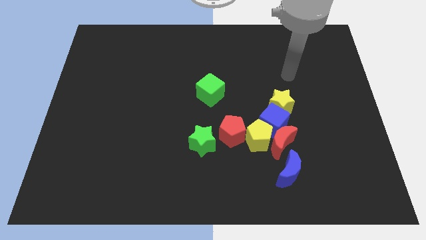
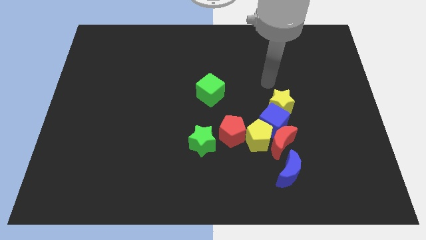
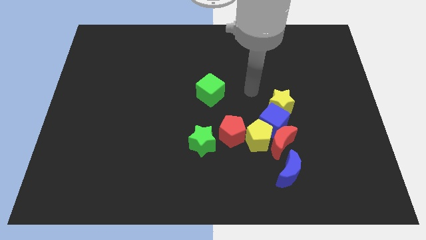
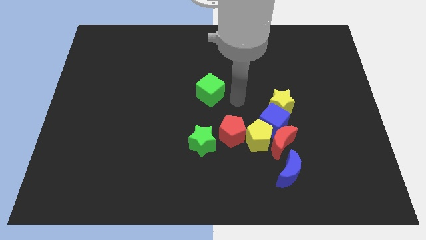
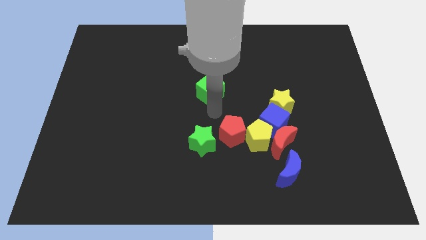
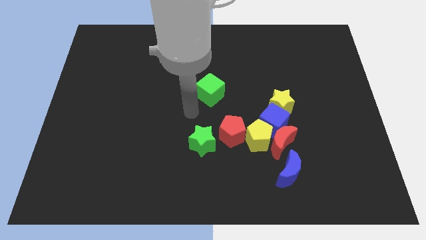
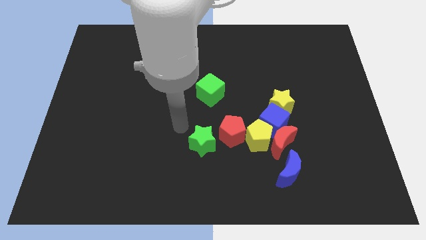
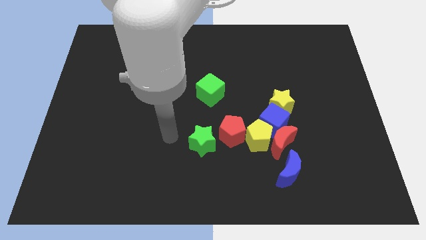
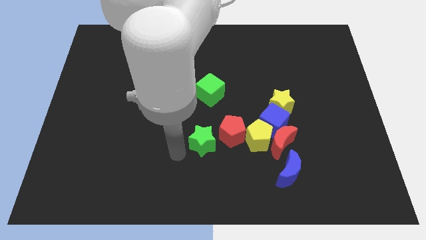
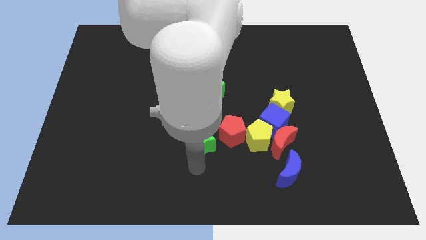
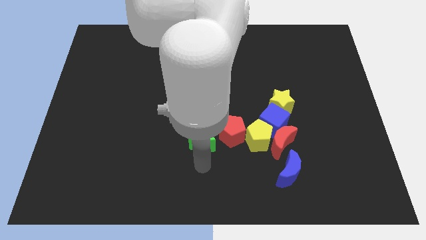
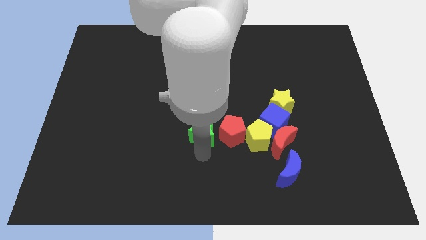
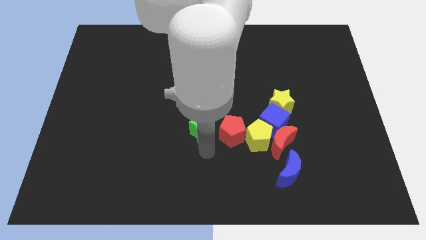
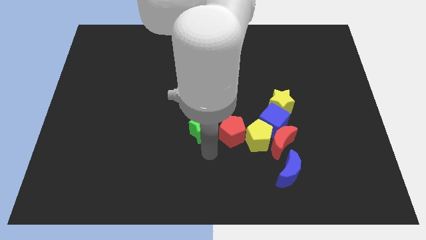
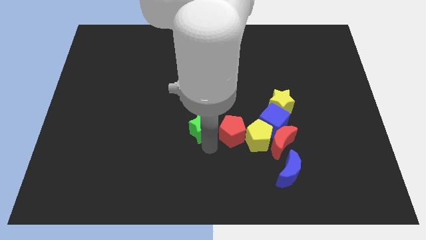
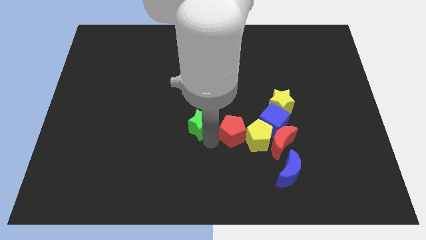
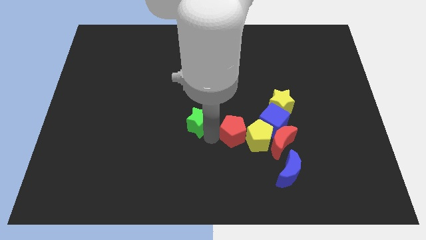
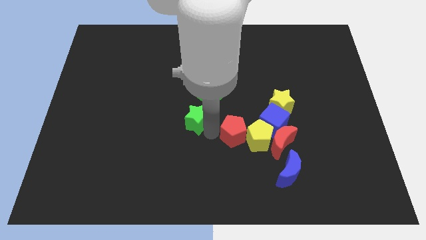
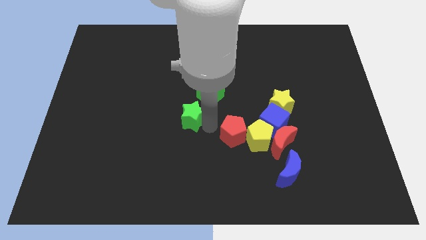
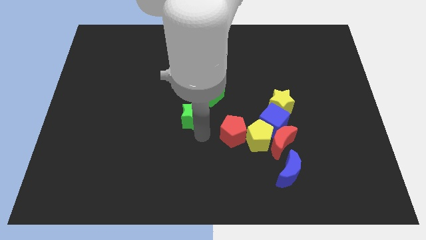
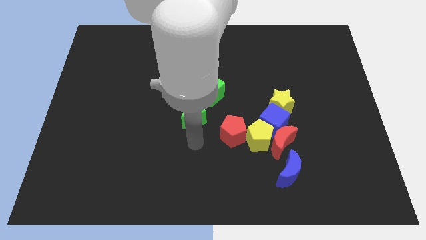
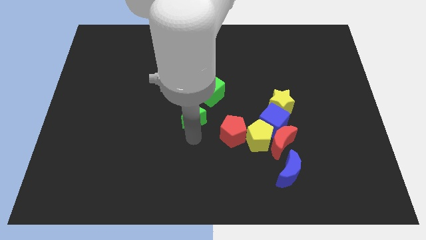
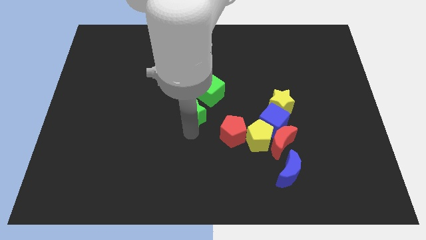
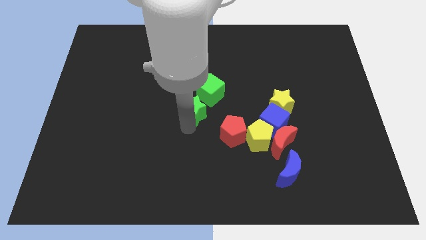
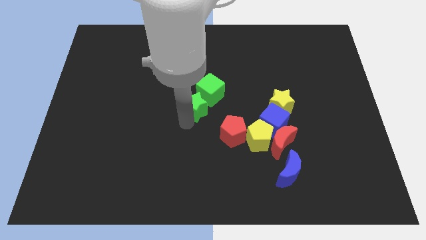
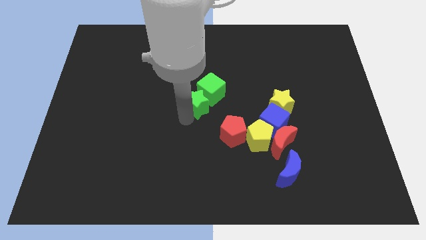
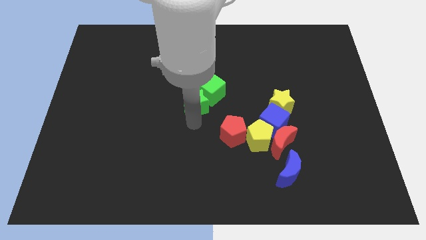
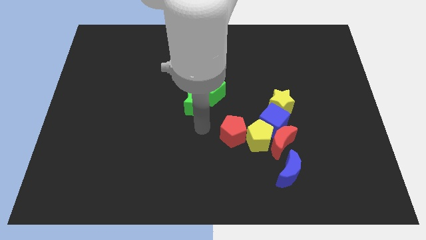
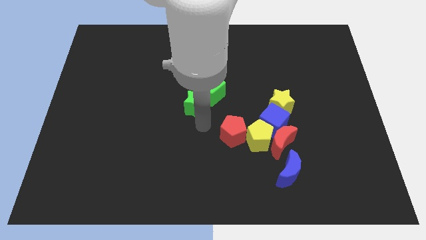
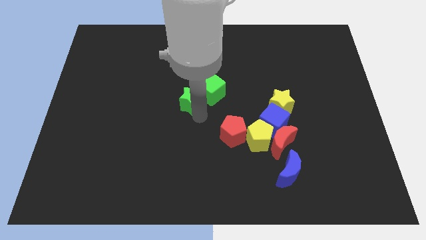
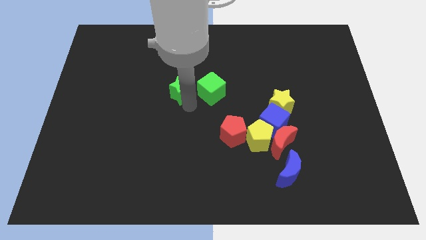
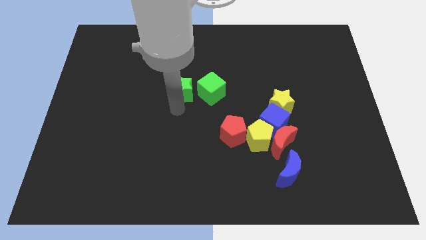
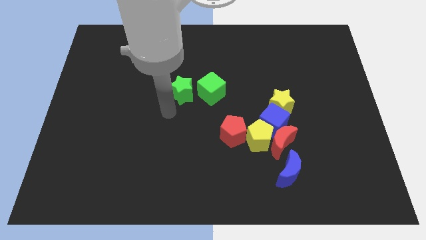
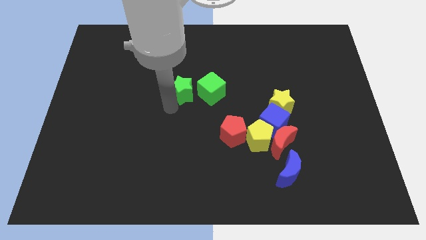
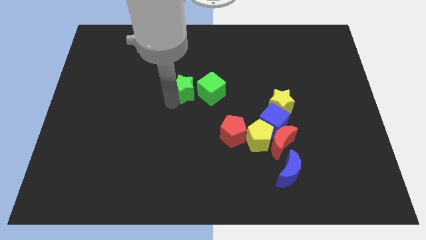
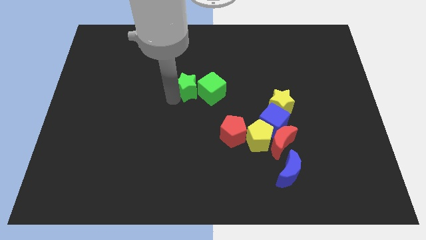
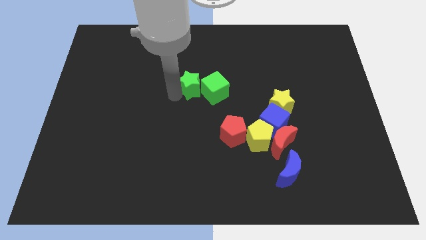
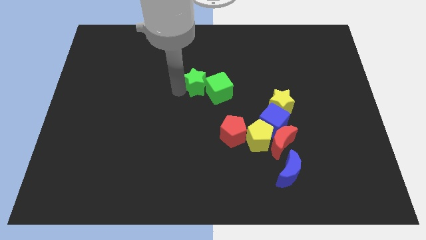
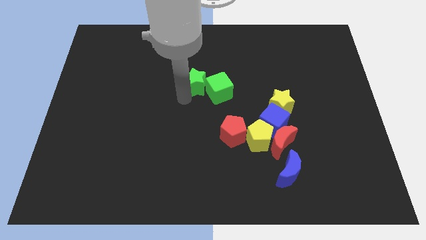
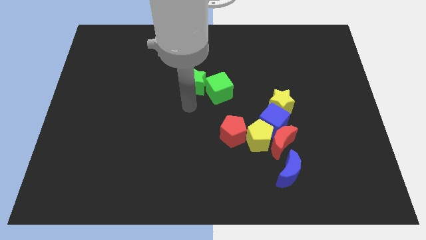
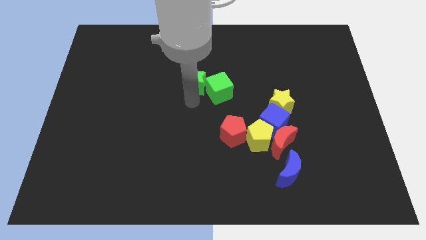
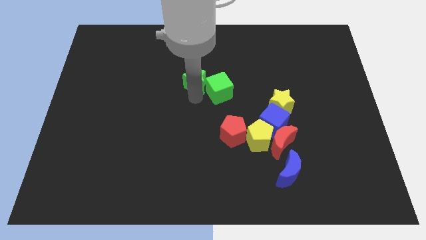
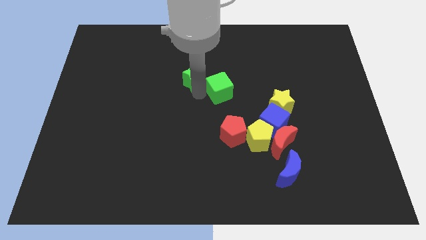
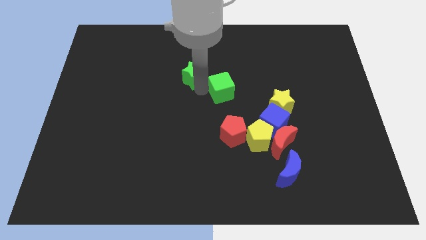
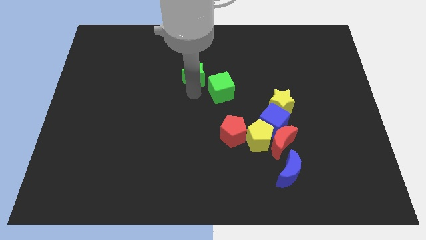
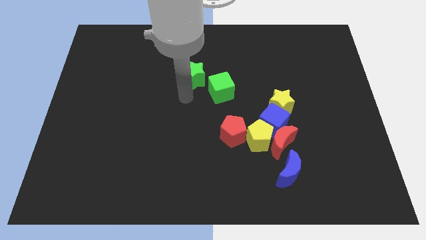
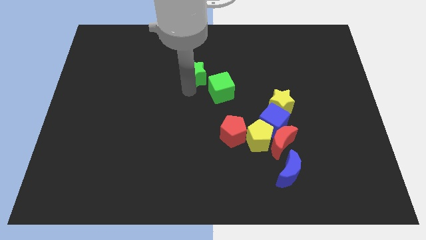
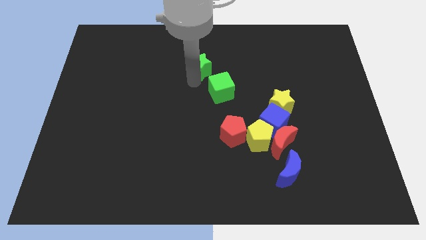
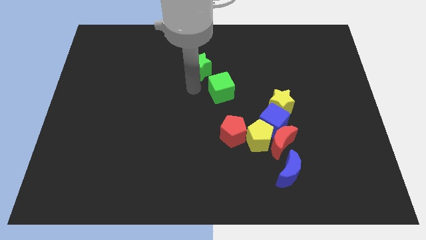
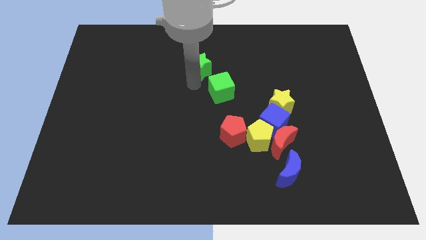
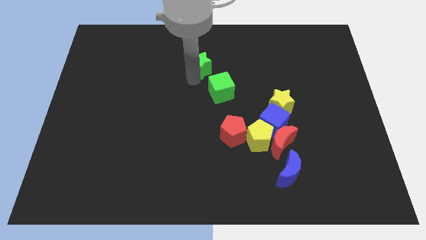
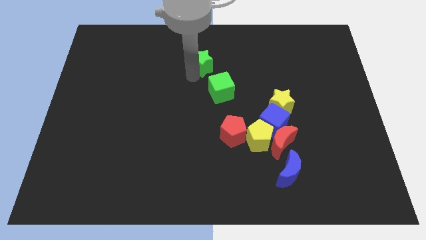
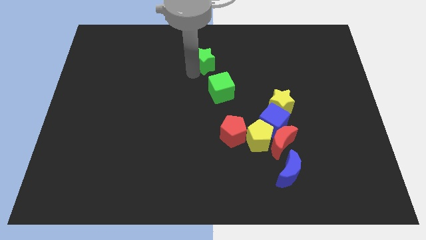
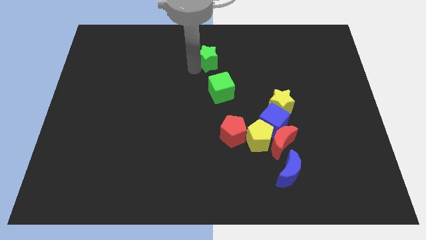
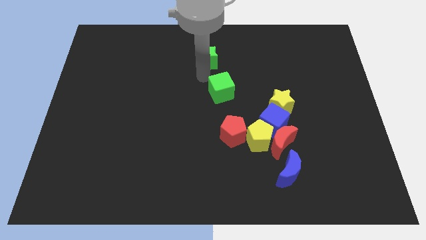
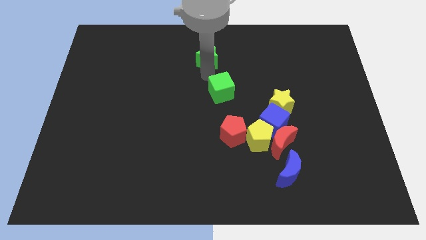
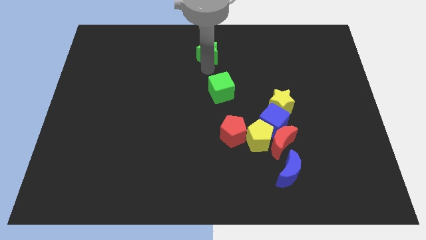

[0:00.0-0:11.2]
put the green star to the top

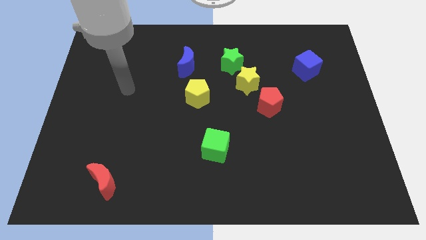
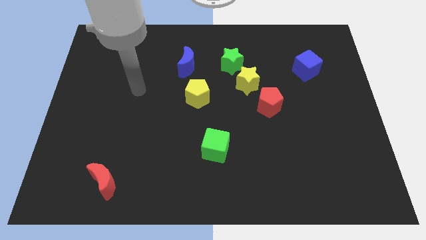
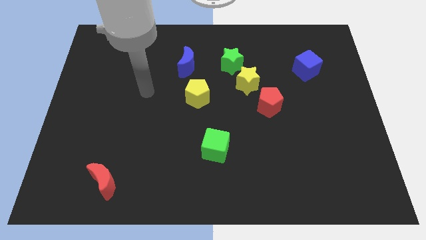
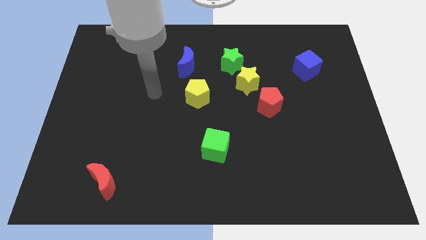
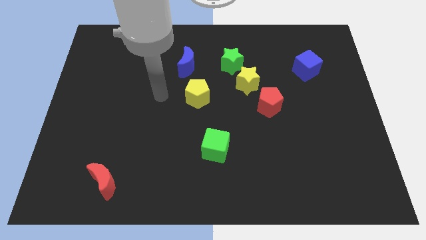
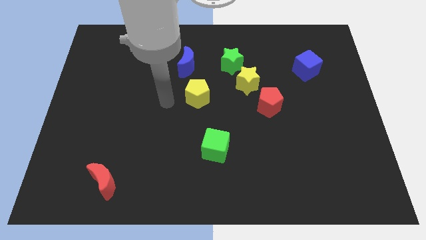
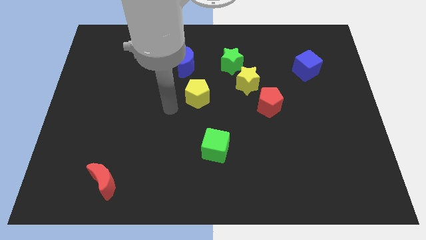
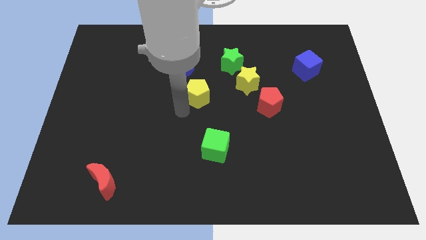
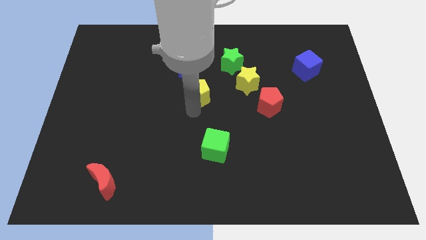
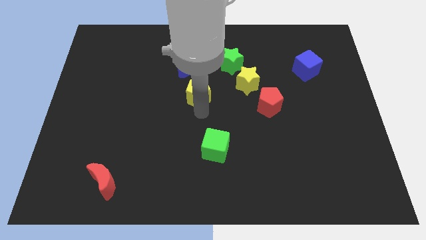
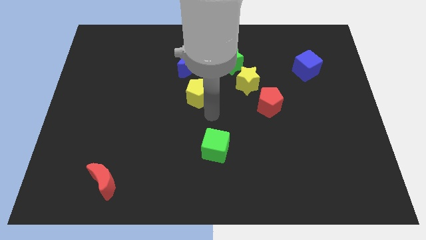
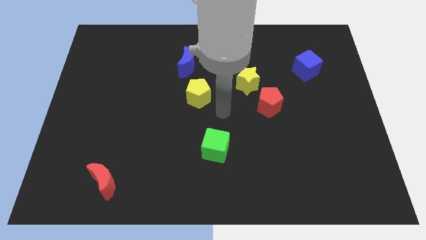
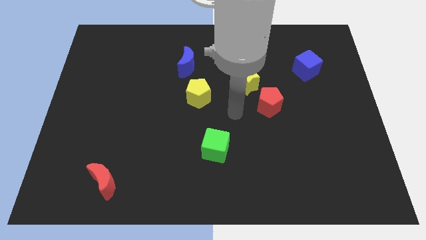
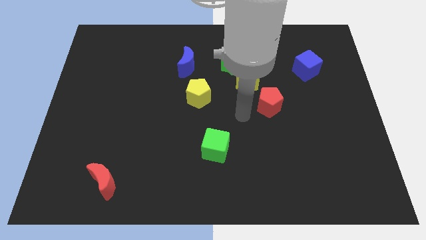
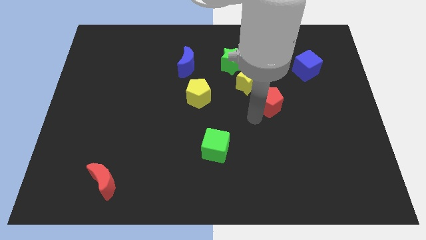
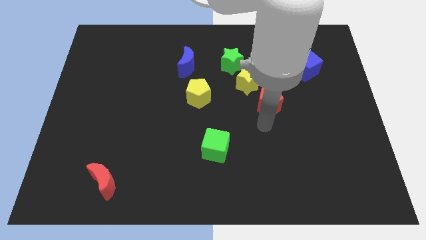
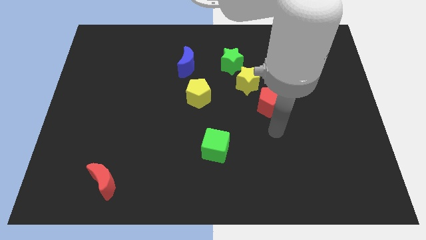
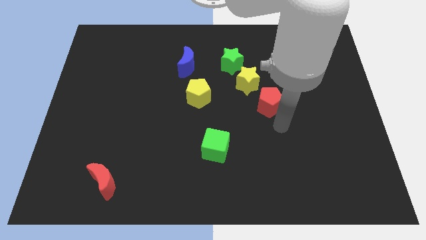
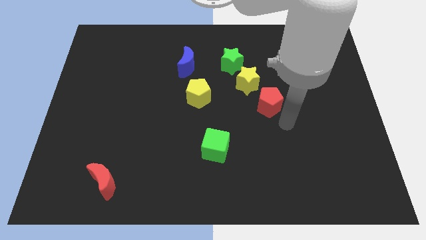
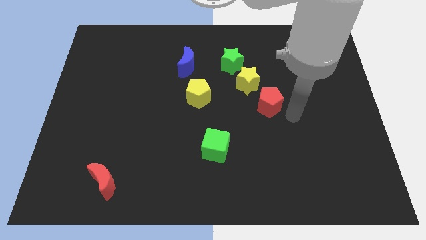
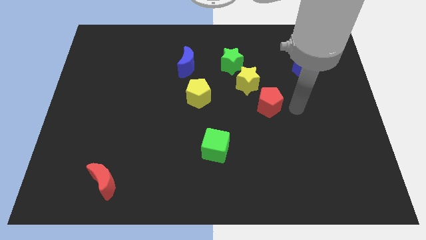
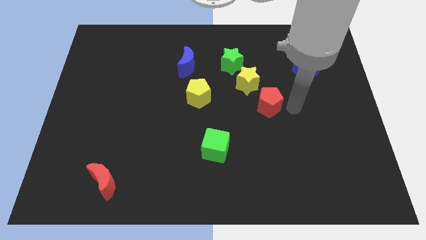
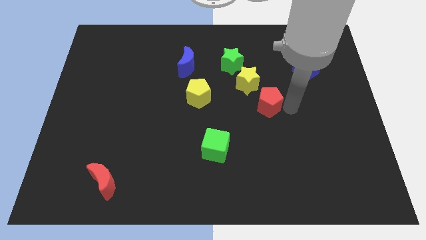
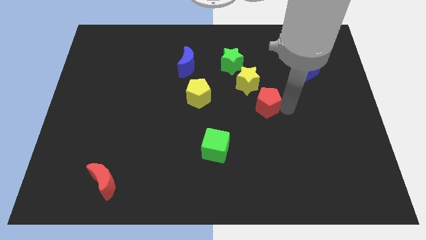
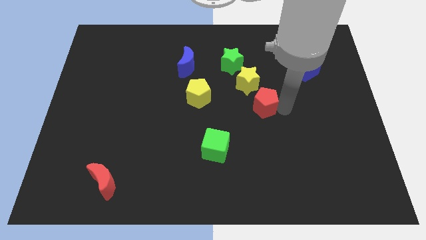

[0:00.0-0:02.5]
push the red pentagon to the middle
